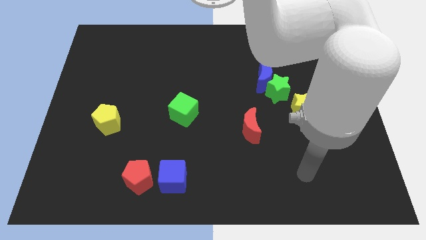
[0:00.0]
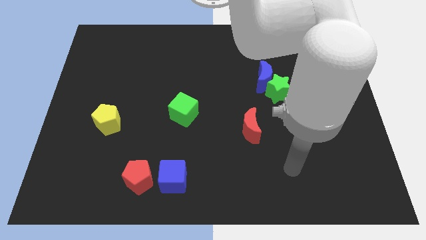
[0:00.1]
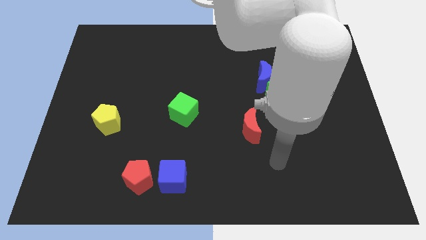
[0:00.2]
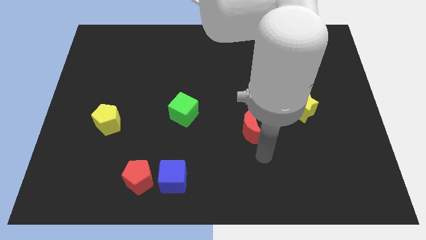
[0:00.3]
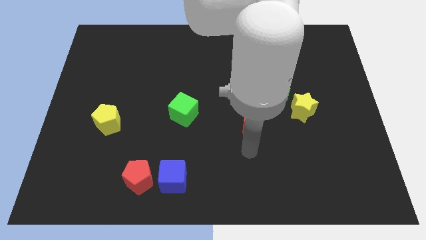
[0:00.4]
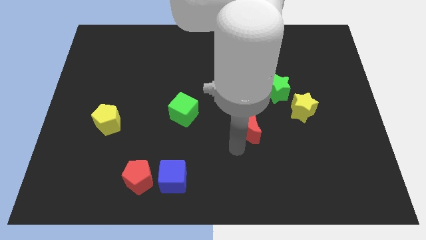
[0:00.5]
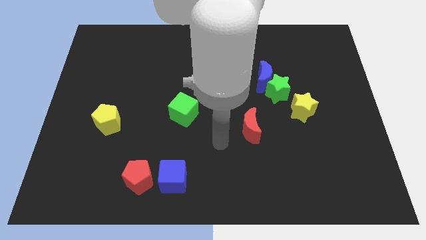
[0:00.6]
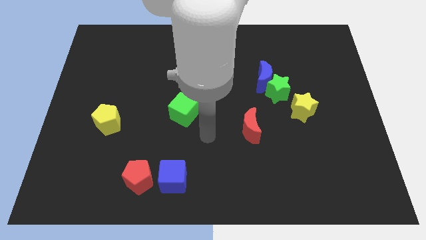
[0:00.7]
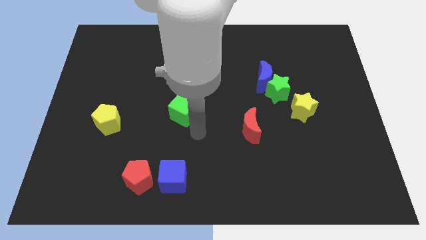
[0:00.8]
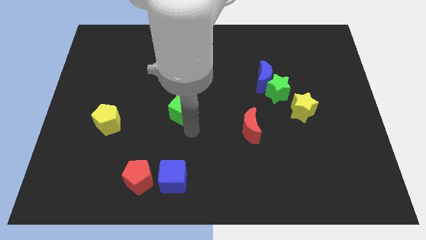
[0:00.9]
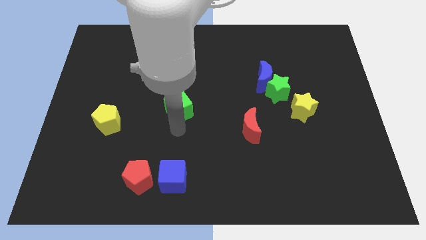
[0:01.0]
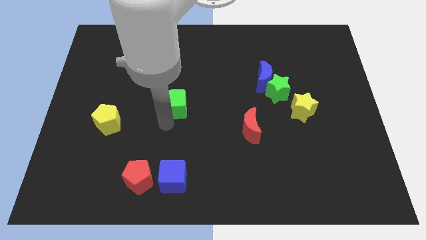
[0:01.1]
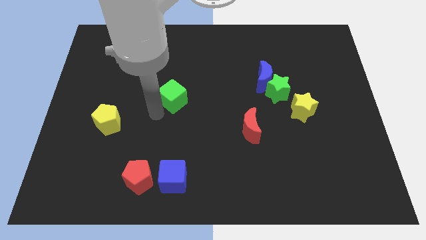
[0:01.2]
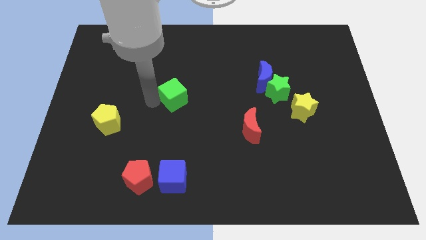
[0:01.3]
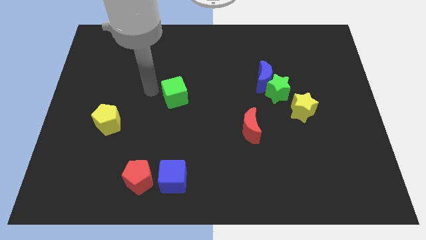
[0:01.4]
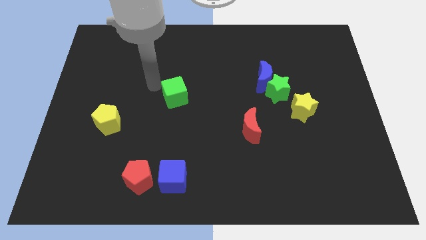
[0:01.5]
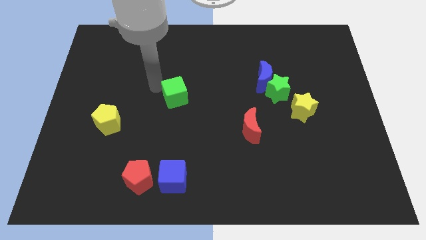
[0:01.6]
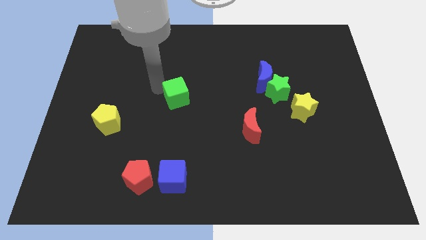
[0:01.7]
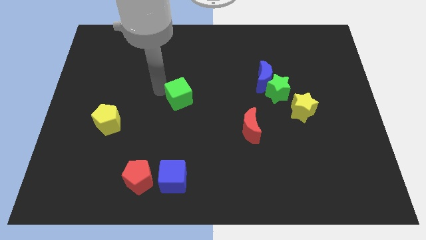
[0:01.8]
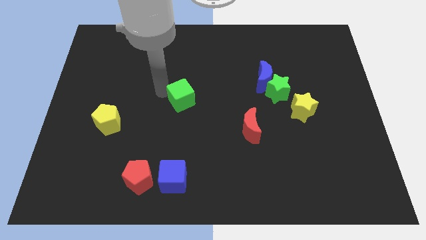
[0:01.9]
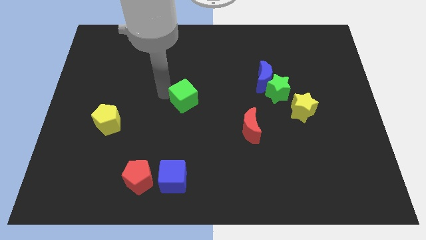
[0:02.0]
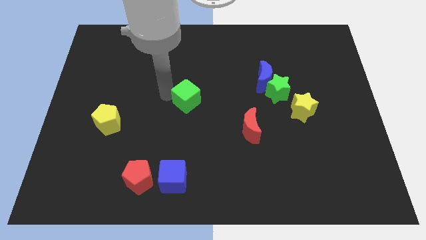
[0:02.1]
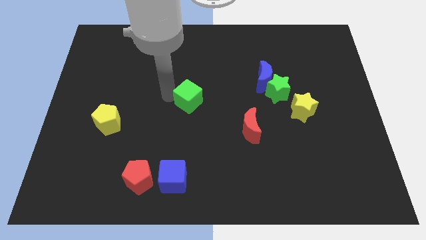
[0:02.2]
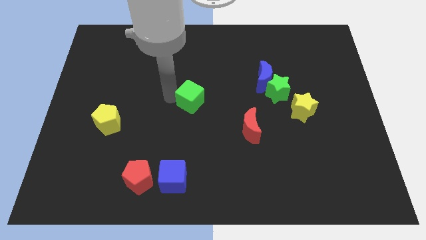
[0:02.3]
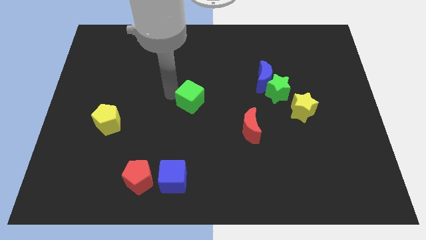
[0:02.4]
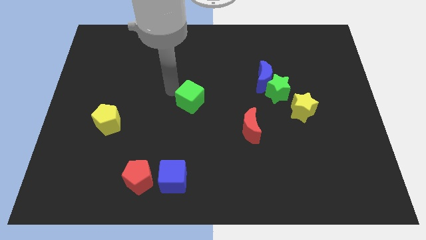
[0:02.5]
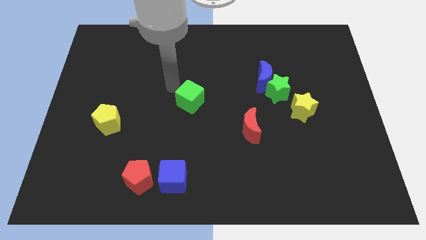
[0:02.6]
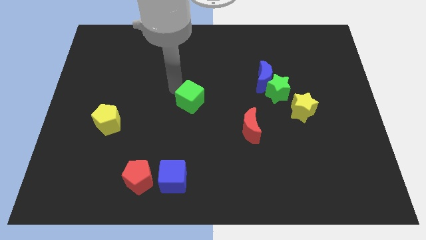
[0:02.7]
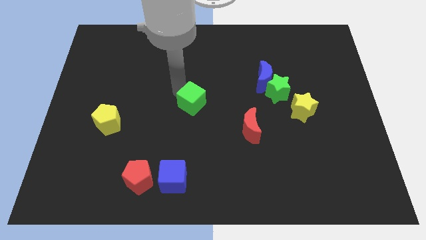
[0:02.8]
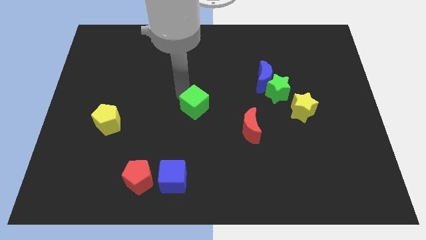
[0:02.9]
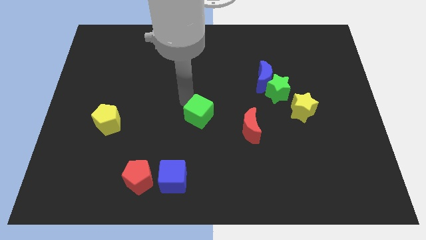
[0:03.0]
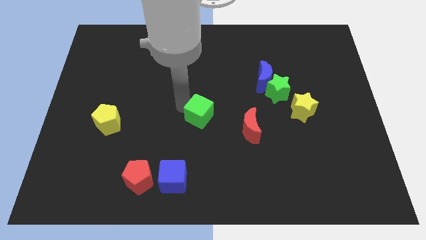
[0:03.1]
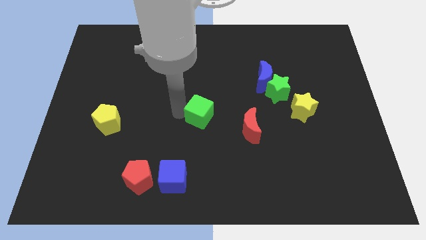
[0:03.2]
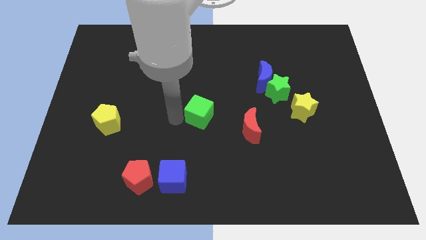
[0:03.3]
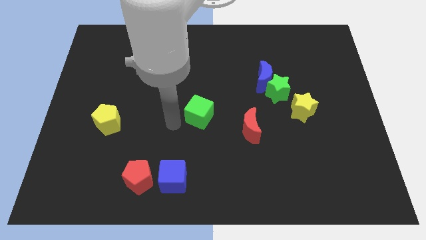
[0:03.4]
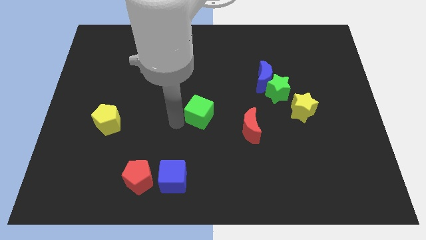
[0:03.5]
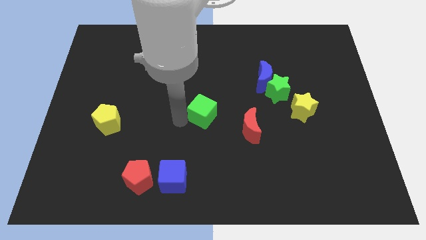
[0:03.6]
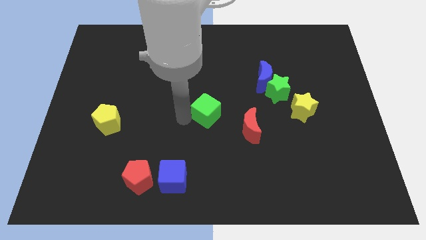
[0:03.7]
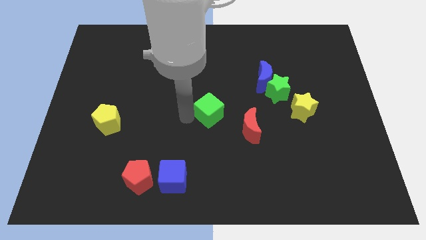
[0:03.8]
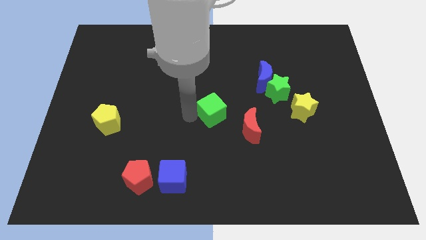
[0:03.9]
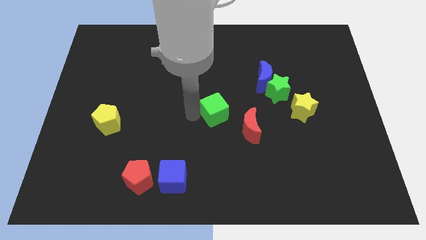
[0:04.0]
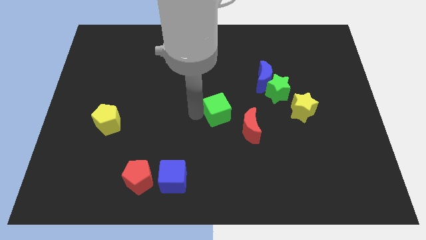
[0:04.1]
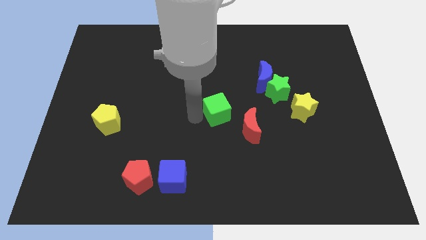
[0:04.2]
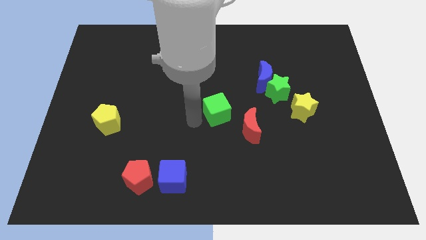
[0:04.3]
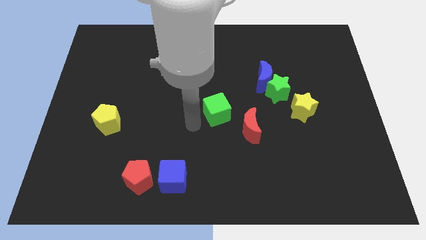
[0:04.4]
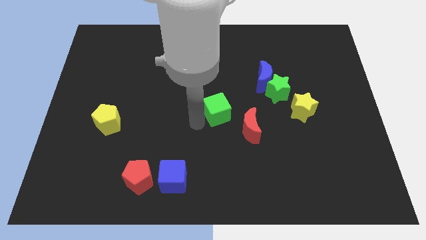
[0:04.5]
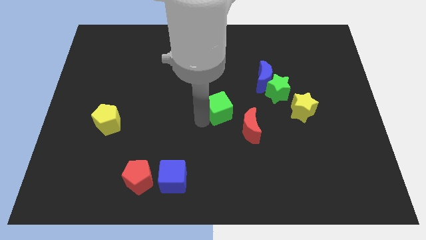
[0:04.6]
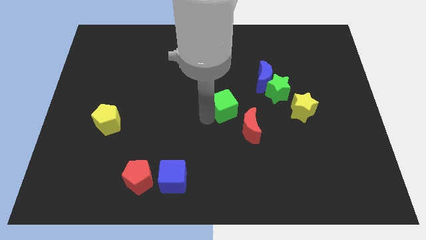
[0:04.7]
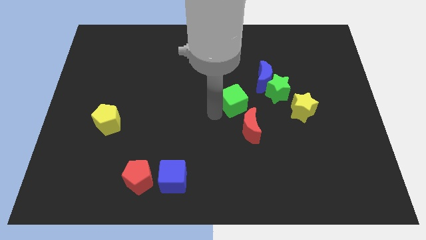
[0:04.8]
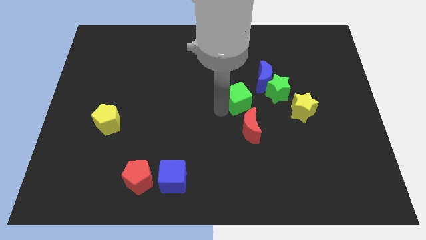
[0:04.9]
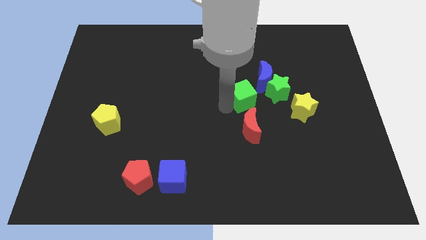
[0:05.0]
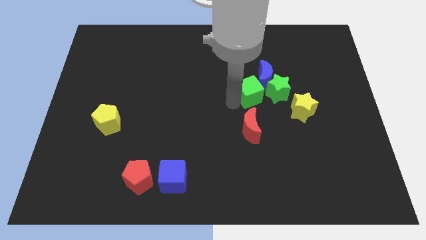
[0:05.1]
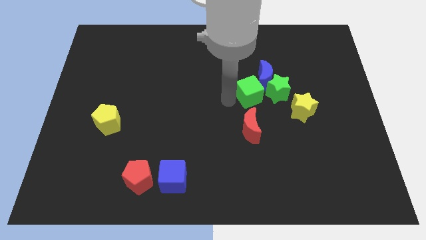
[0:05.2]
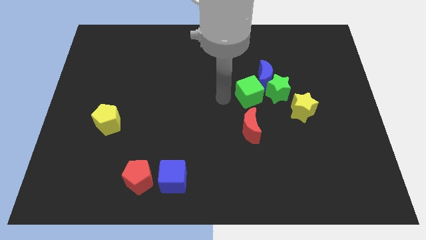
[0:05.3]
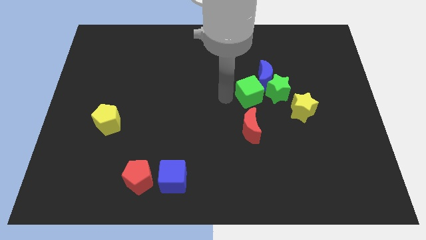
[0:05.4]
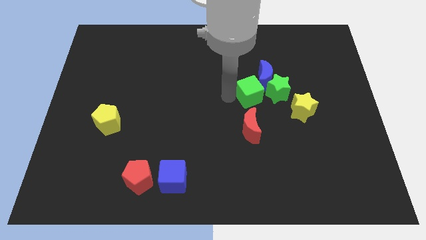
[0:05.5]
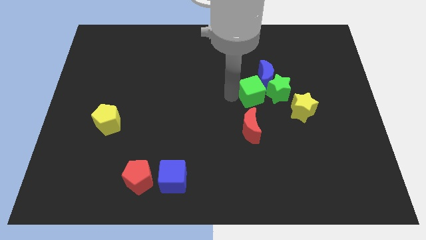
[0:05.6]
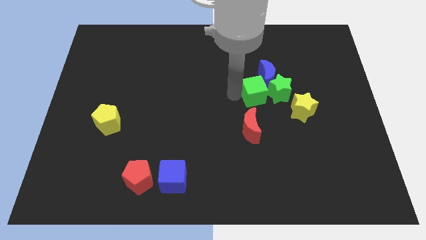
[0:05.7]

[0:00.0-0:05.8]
put the green cube close to the green star

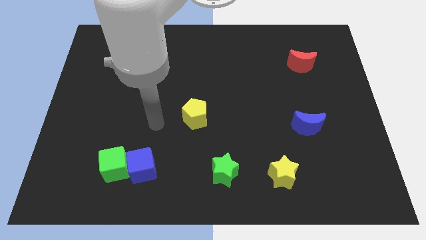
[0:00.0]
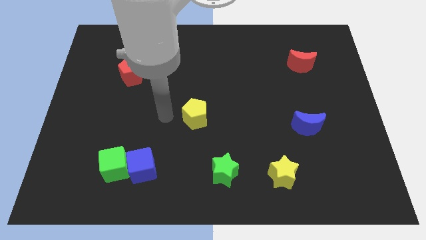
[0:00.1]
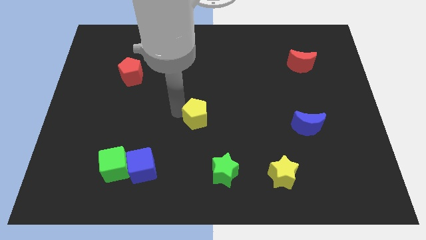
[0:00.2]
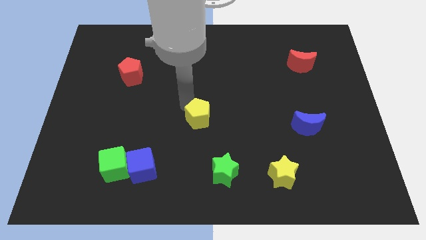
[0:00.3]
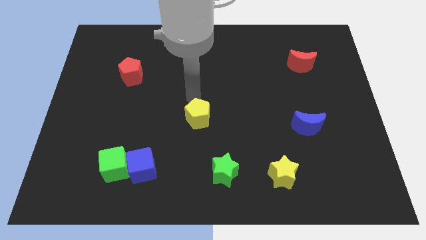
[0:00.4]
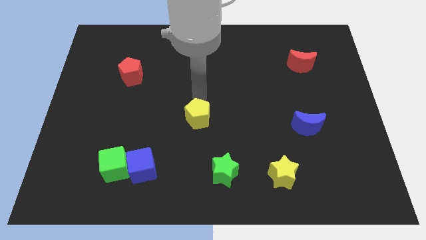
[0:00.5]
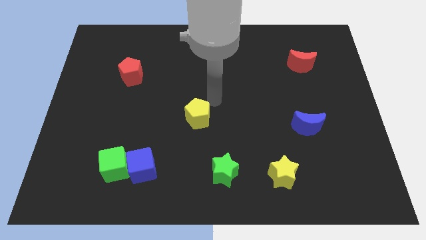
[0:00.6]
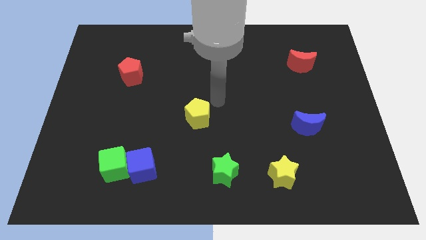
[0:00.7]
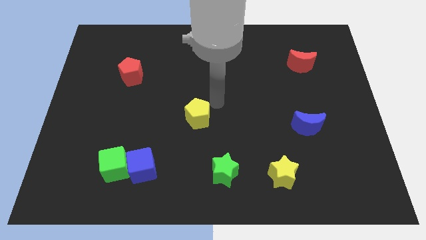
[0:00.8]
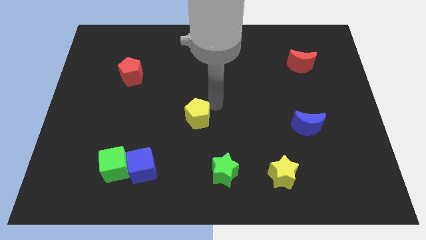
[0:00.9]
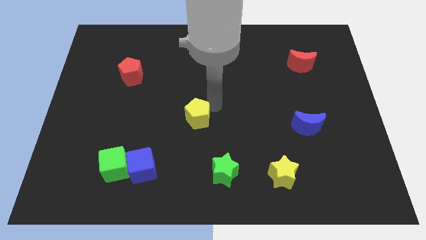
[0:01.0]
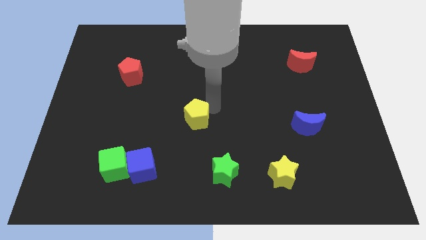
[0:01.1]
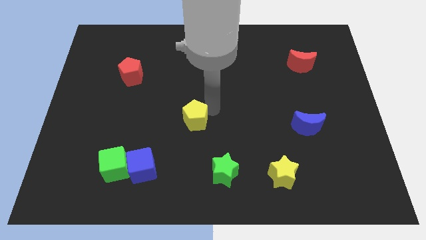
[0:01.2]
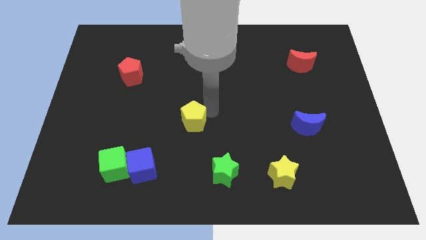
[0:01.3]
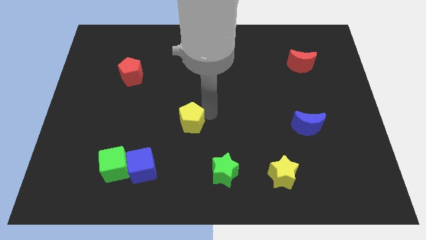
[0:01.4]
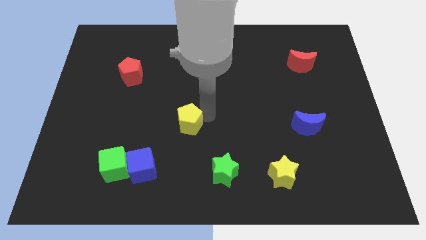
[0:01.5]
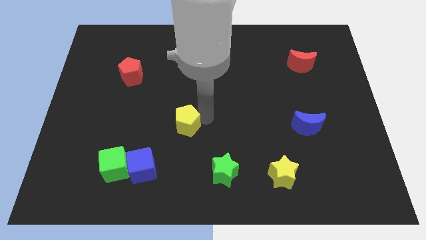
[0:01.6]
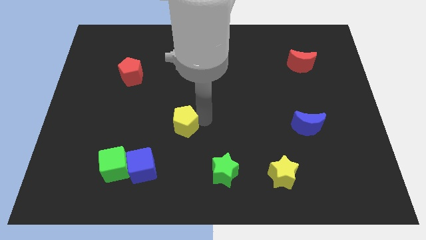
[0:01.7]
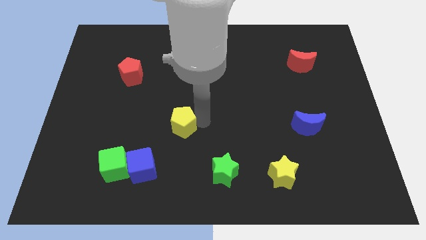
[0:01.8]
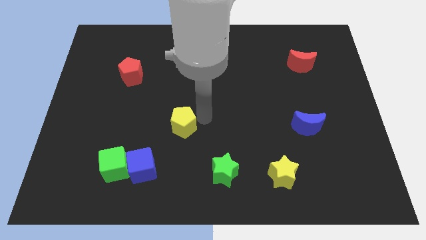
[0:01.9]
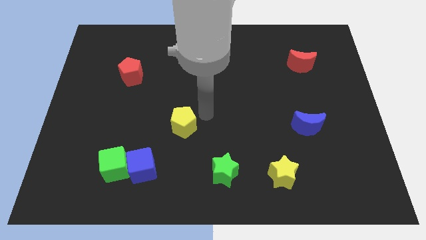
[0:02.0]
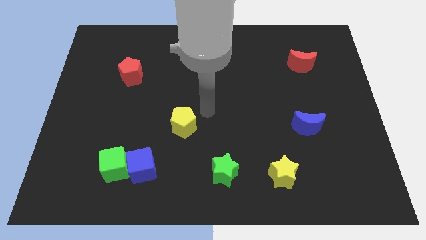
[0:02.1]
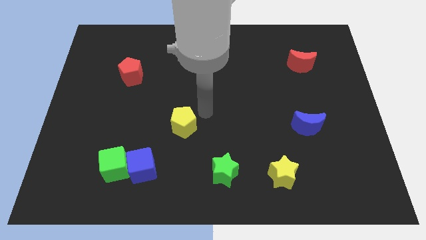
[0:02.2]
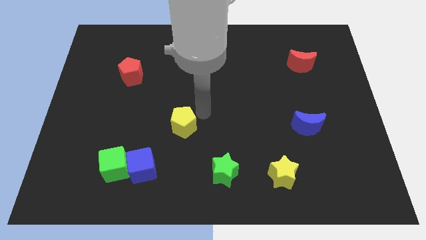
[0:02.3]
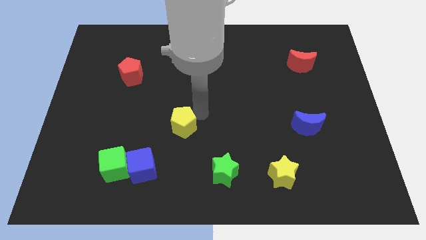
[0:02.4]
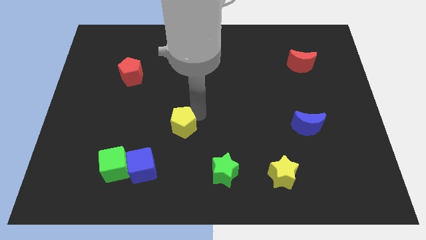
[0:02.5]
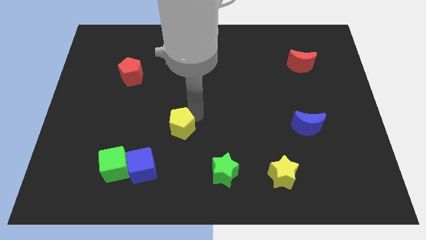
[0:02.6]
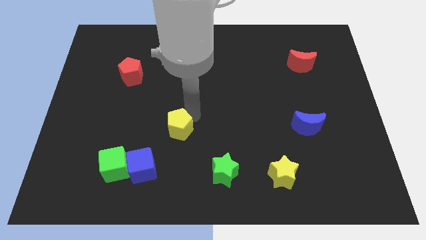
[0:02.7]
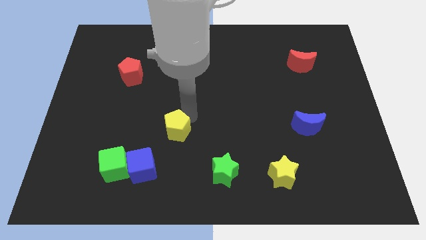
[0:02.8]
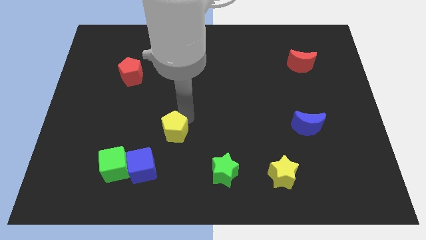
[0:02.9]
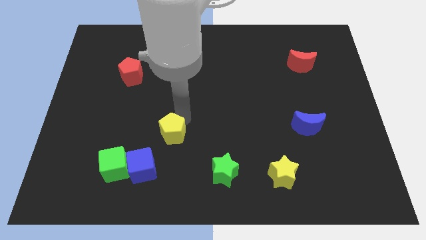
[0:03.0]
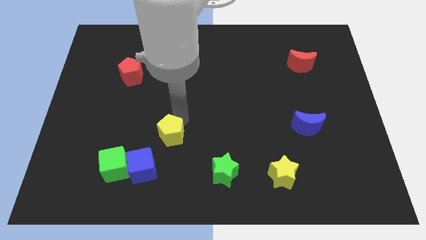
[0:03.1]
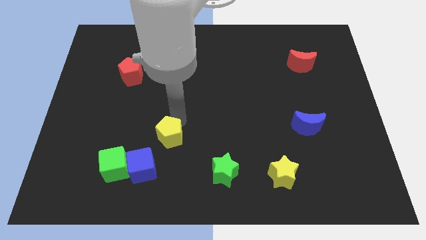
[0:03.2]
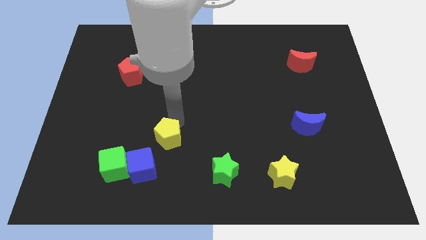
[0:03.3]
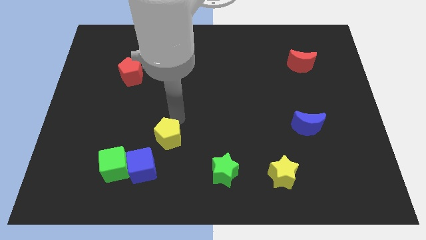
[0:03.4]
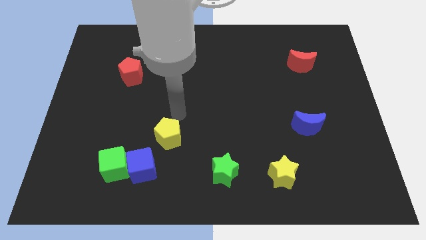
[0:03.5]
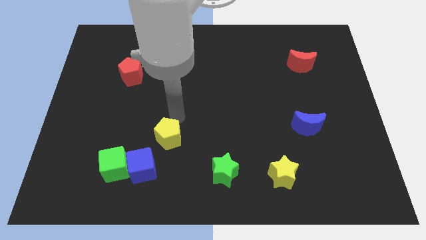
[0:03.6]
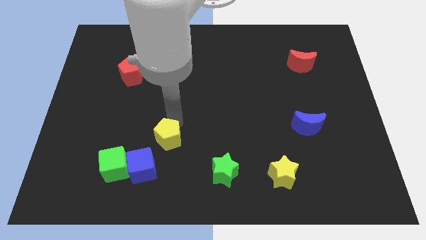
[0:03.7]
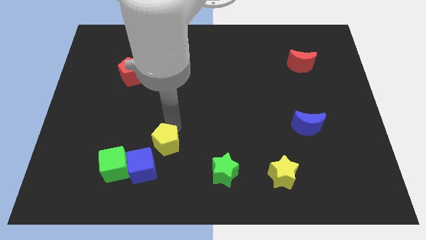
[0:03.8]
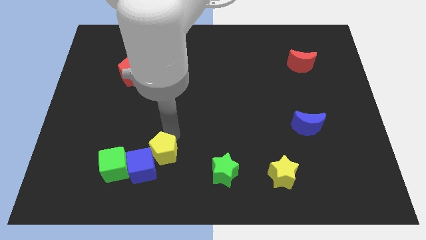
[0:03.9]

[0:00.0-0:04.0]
slide the yellow pentagon close to the blue cube
